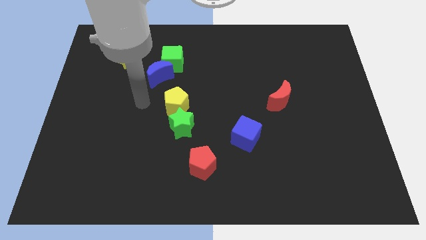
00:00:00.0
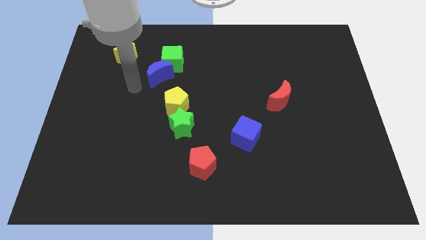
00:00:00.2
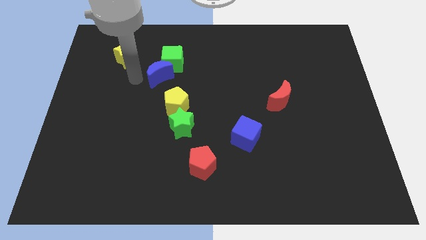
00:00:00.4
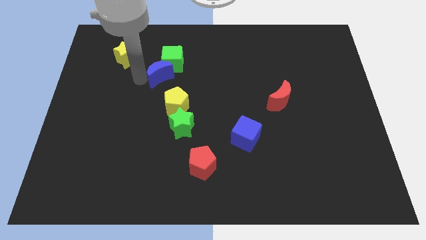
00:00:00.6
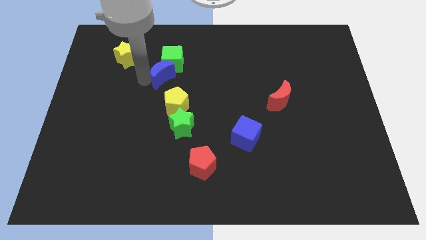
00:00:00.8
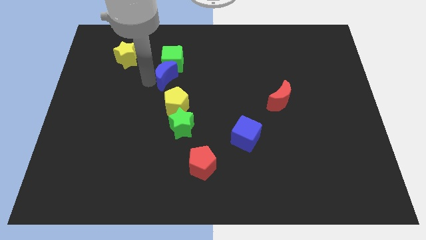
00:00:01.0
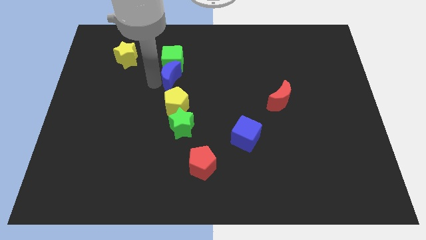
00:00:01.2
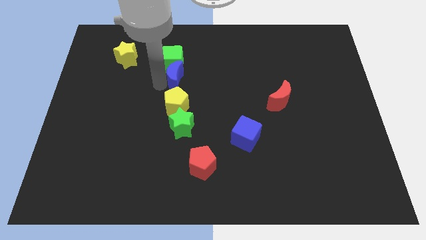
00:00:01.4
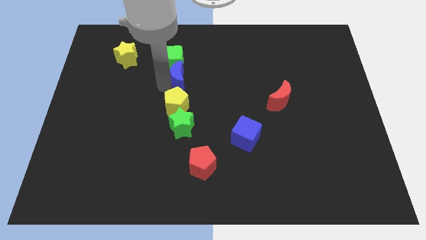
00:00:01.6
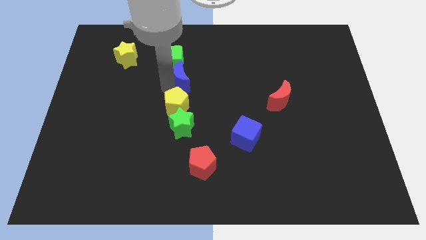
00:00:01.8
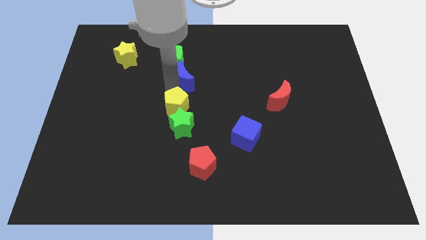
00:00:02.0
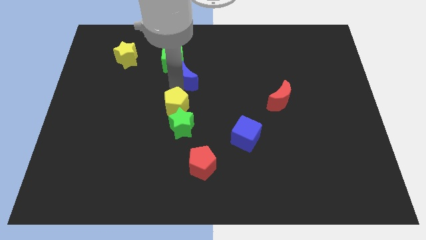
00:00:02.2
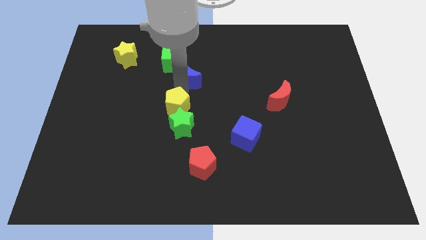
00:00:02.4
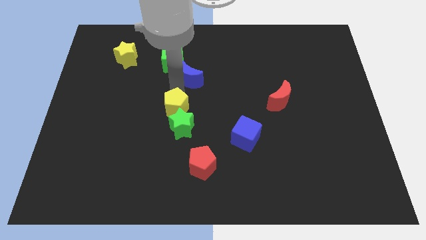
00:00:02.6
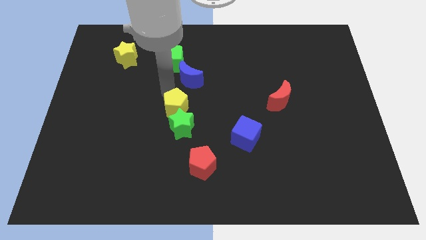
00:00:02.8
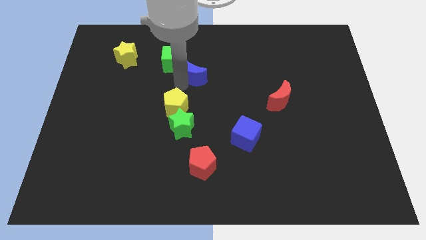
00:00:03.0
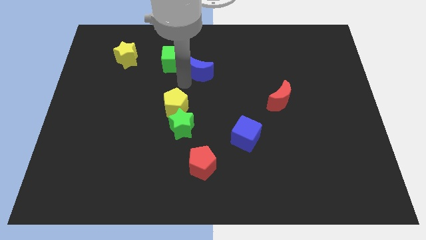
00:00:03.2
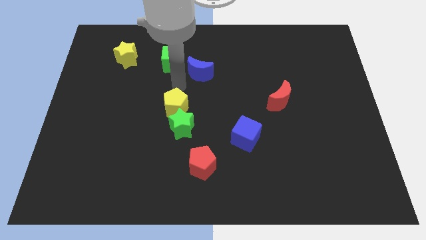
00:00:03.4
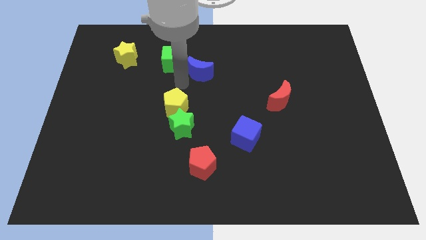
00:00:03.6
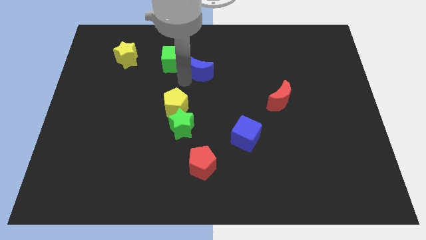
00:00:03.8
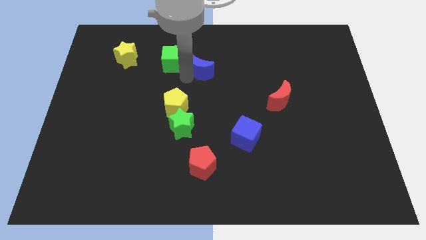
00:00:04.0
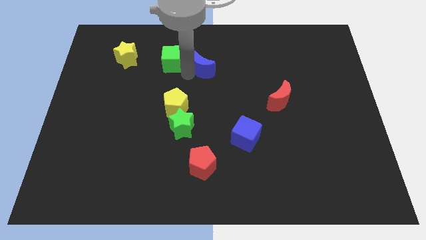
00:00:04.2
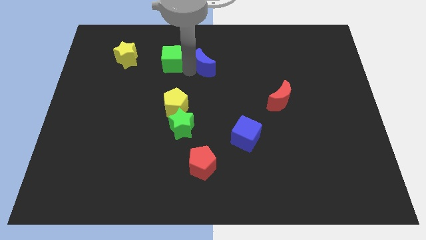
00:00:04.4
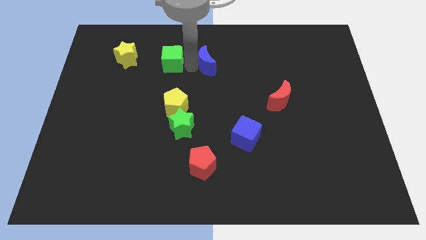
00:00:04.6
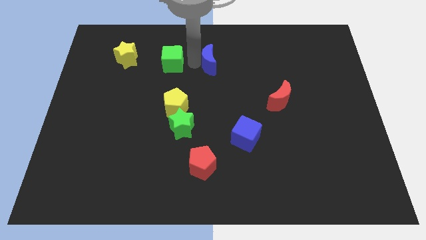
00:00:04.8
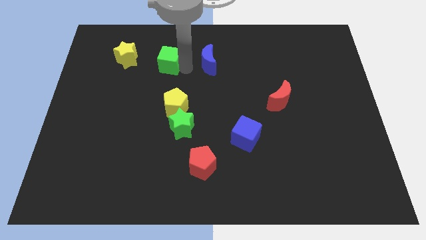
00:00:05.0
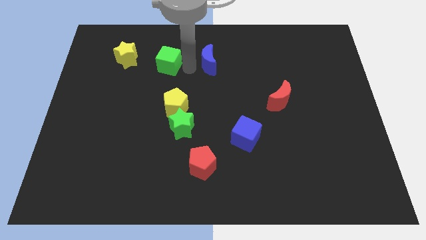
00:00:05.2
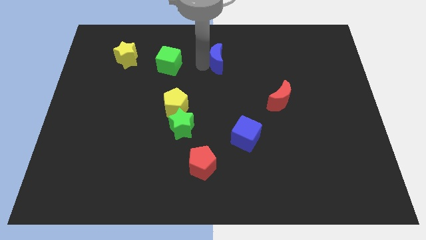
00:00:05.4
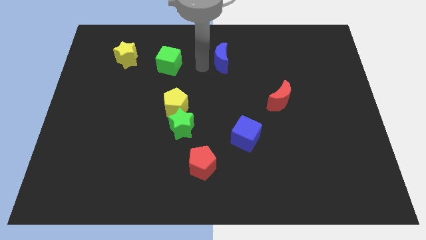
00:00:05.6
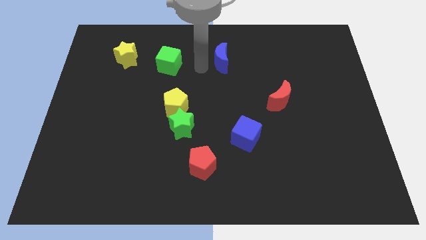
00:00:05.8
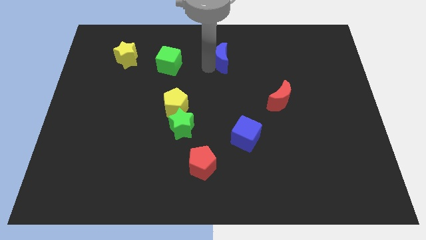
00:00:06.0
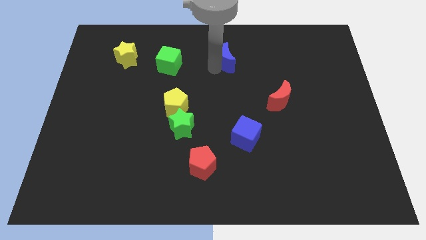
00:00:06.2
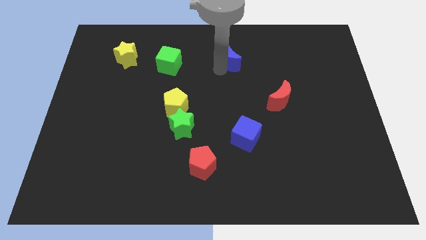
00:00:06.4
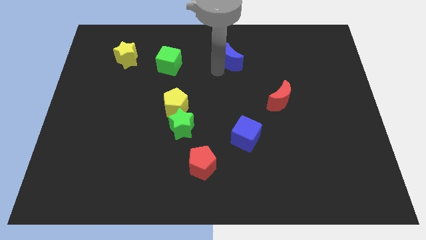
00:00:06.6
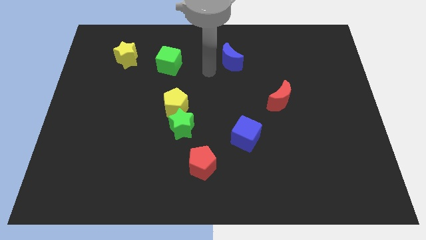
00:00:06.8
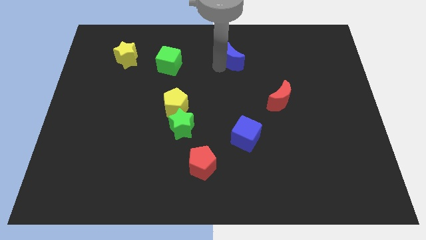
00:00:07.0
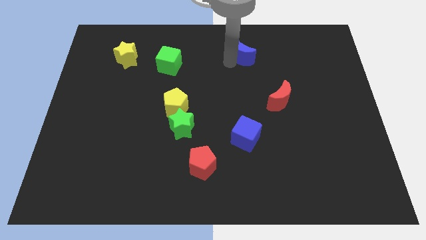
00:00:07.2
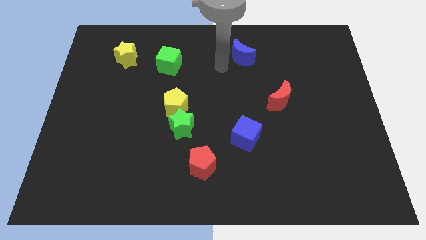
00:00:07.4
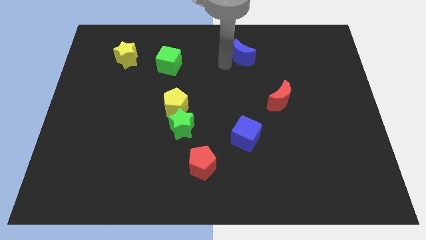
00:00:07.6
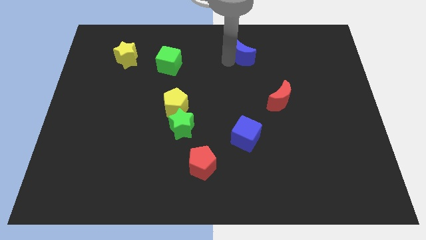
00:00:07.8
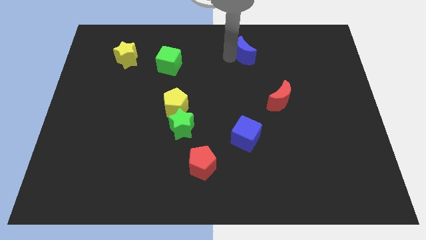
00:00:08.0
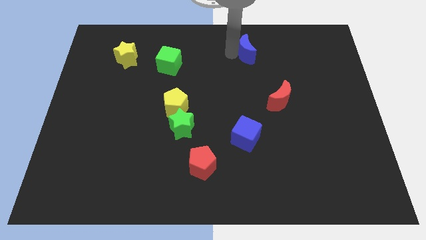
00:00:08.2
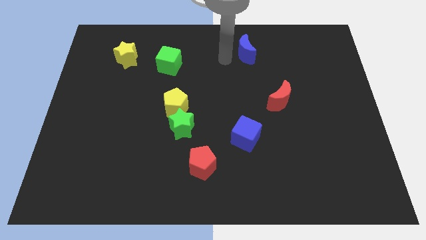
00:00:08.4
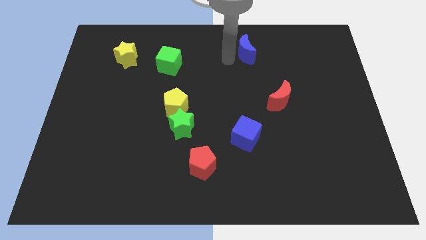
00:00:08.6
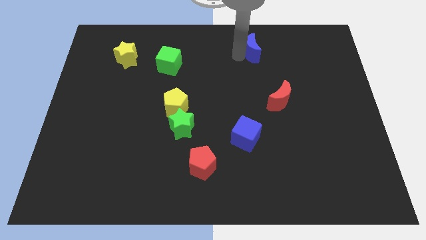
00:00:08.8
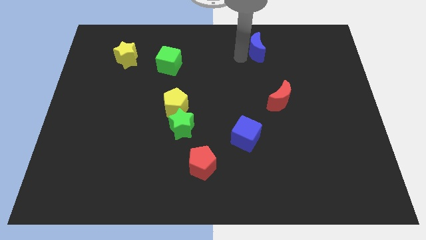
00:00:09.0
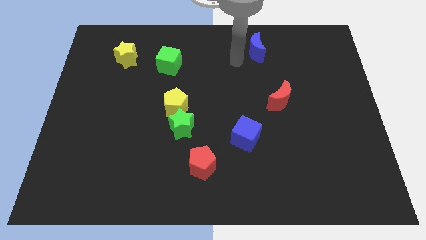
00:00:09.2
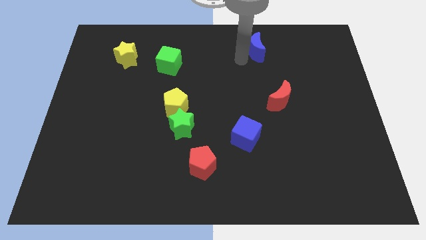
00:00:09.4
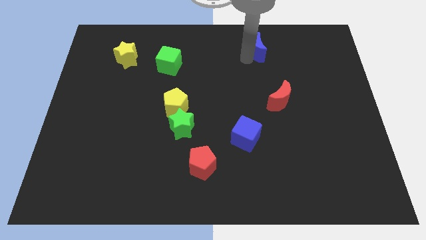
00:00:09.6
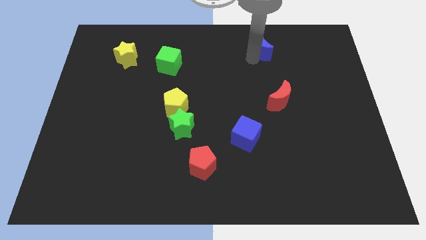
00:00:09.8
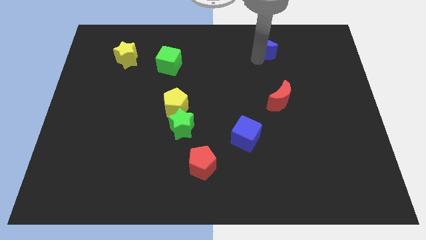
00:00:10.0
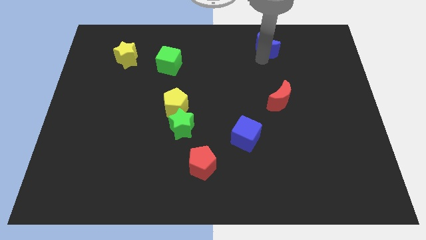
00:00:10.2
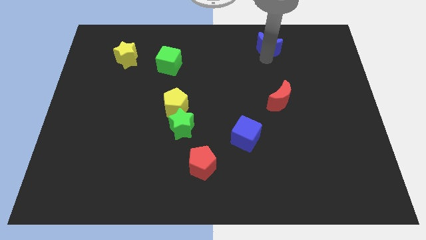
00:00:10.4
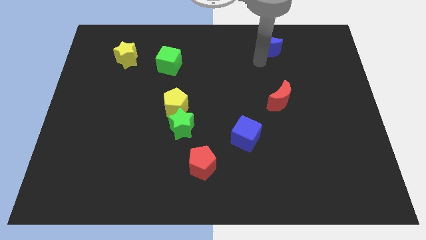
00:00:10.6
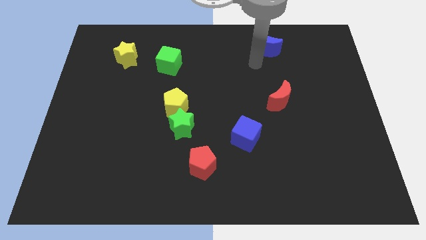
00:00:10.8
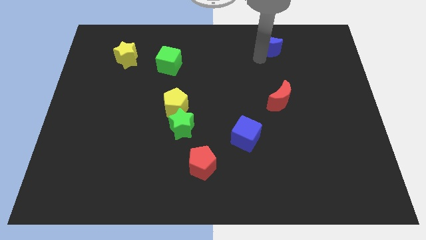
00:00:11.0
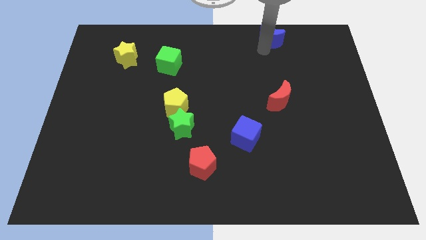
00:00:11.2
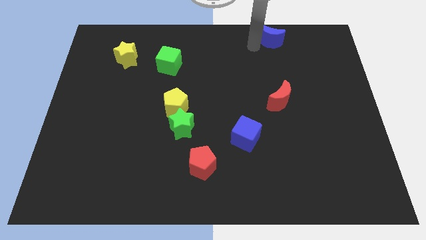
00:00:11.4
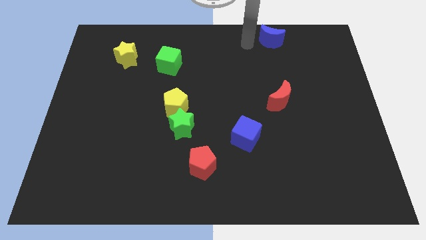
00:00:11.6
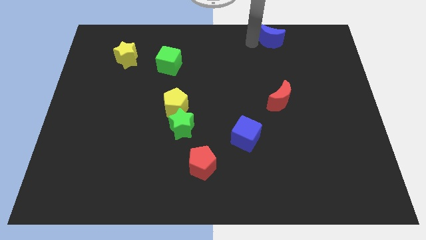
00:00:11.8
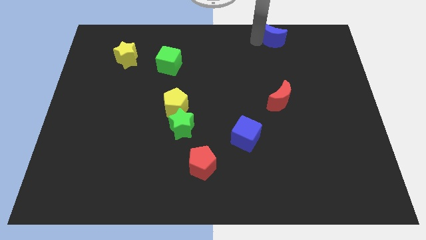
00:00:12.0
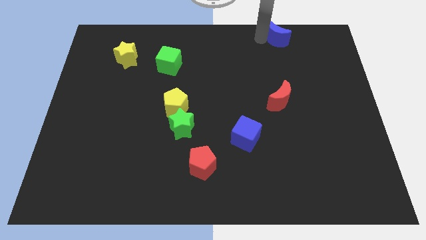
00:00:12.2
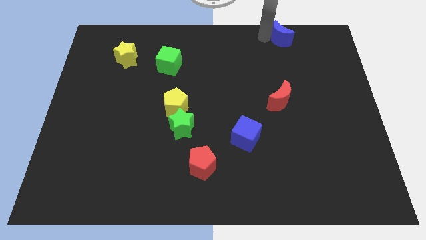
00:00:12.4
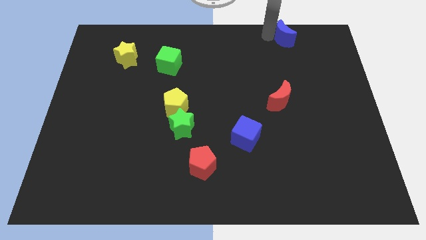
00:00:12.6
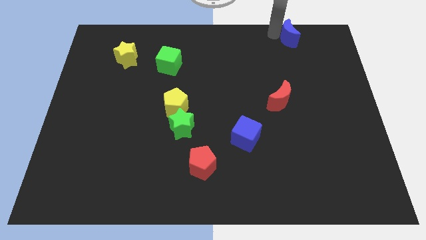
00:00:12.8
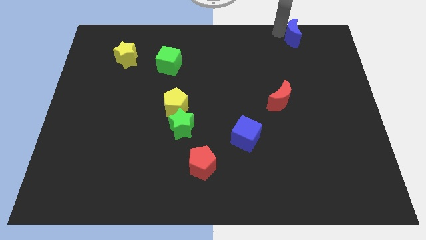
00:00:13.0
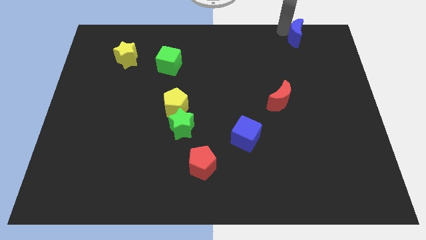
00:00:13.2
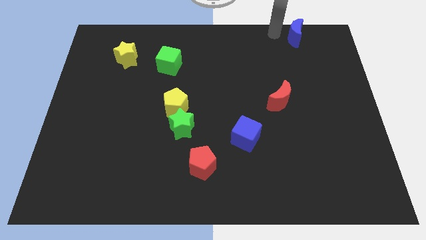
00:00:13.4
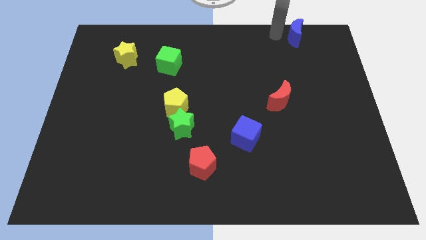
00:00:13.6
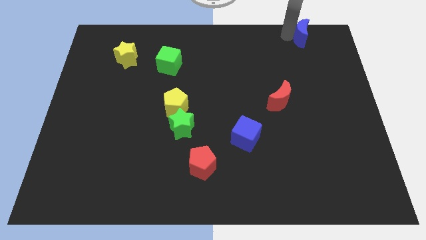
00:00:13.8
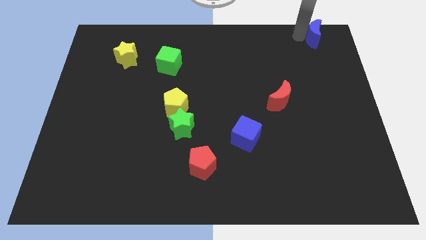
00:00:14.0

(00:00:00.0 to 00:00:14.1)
move the blue moon to the top right of the board
